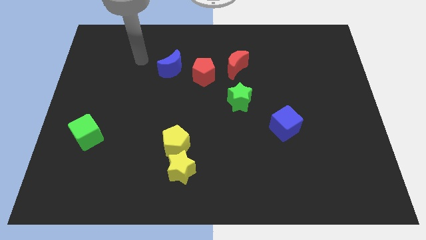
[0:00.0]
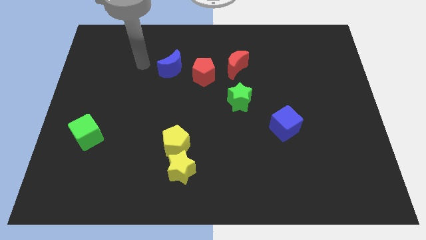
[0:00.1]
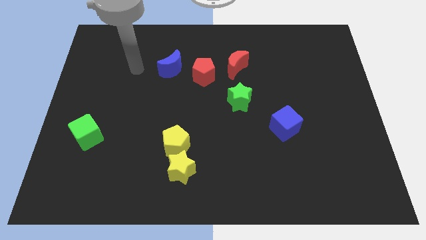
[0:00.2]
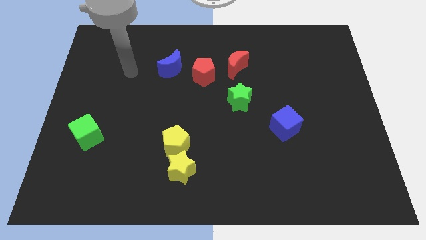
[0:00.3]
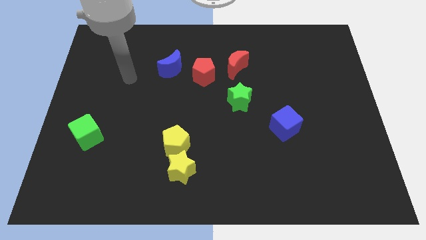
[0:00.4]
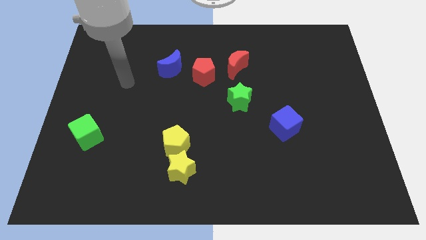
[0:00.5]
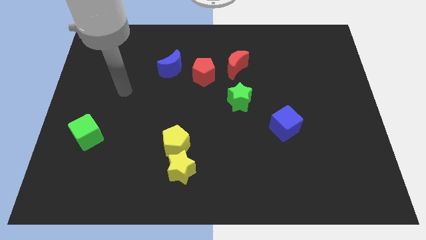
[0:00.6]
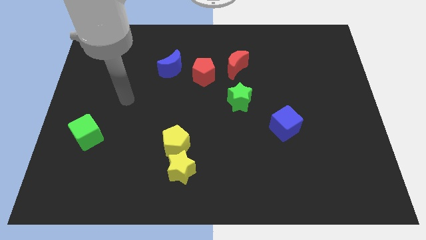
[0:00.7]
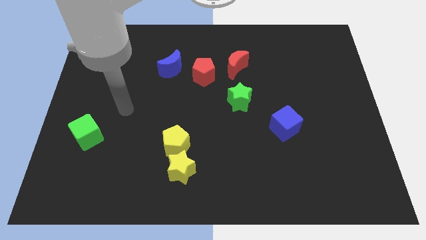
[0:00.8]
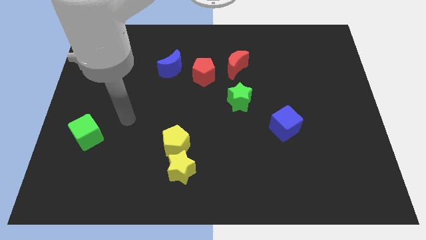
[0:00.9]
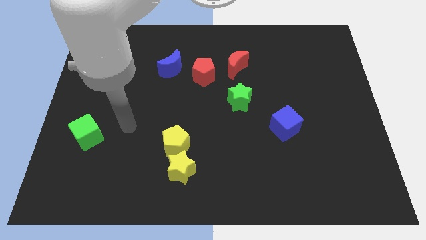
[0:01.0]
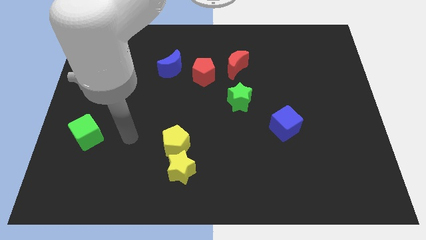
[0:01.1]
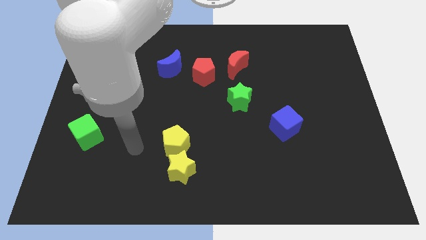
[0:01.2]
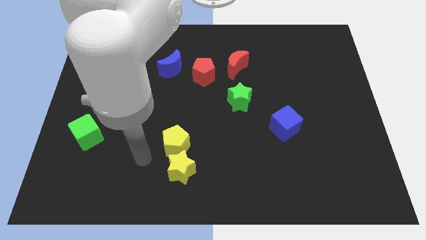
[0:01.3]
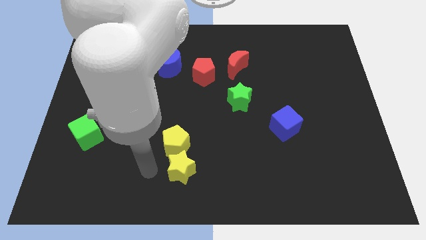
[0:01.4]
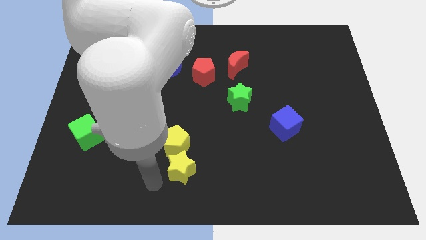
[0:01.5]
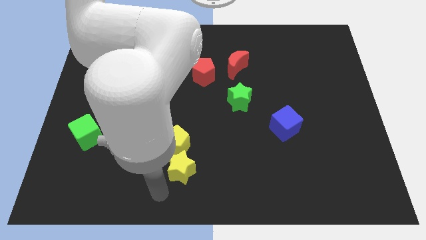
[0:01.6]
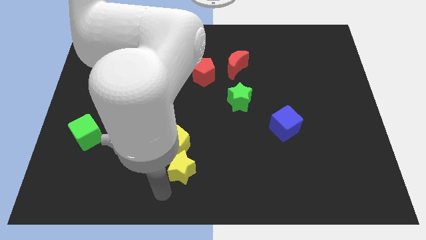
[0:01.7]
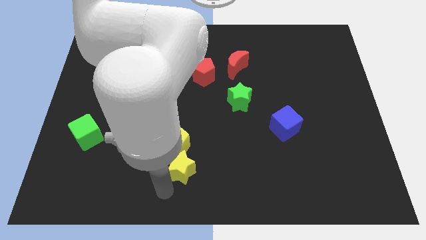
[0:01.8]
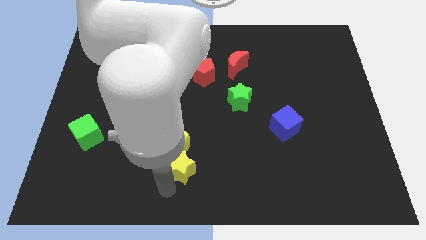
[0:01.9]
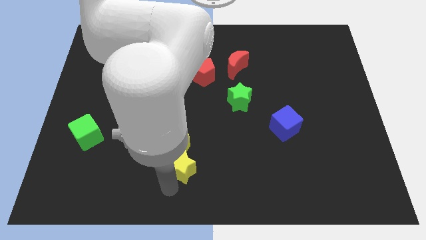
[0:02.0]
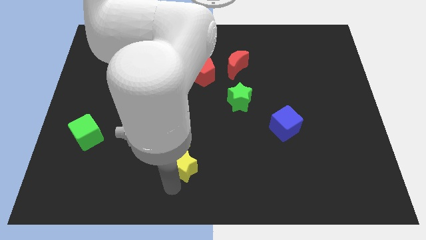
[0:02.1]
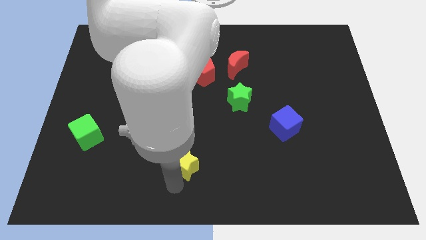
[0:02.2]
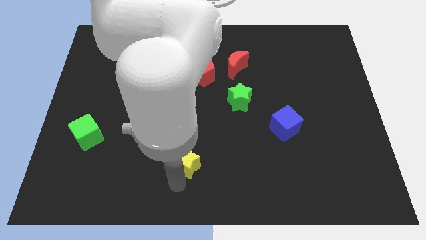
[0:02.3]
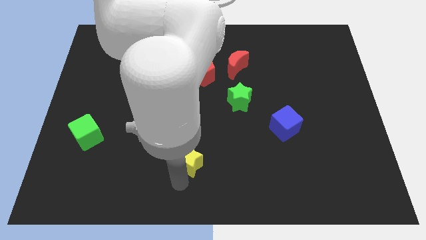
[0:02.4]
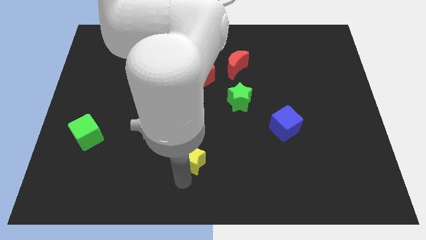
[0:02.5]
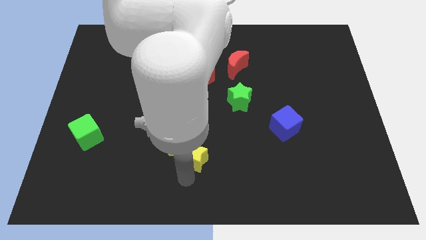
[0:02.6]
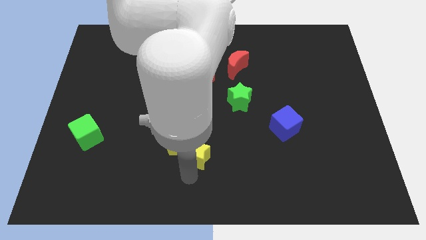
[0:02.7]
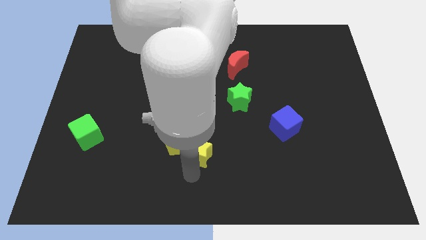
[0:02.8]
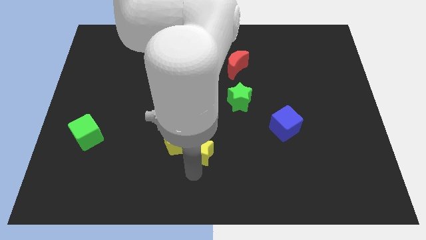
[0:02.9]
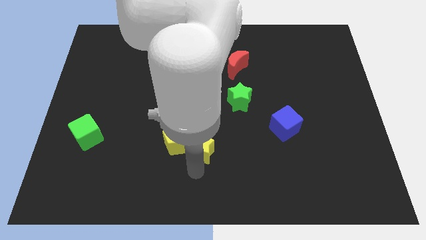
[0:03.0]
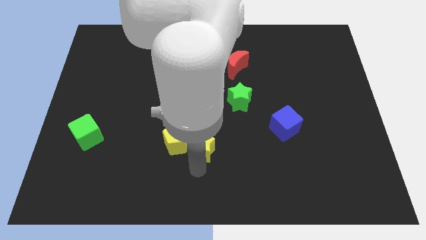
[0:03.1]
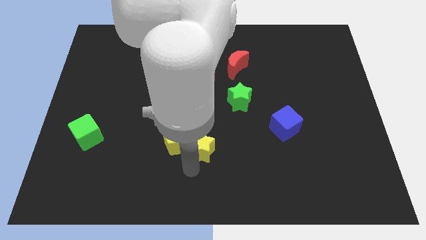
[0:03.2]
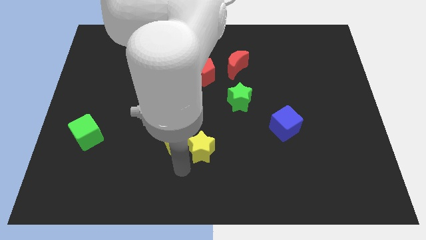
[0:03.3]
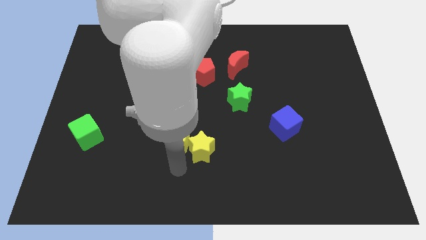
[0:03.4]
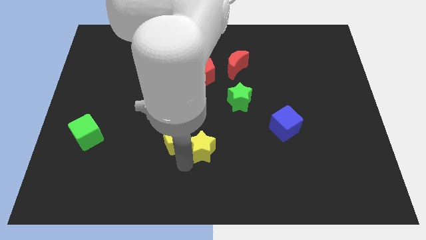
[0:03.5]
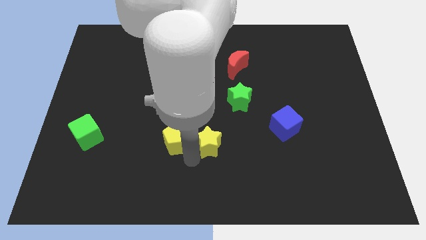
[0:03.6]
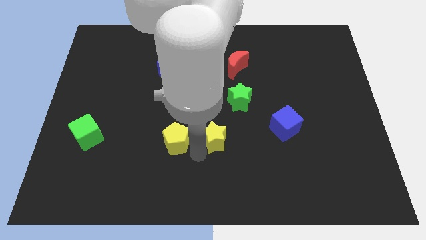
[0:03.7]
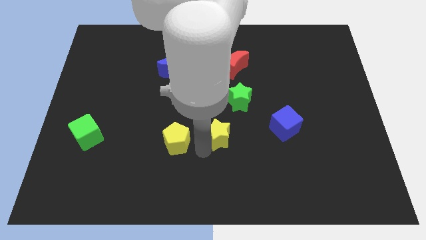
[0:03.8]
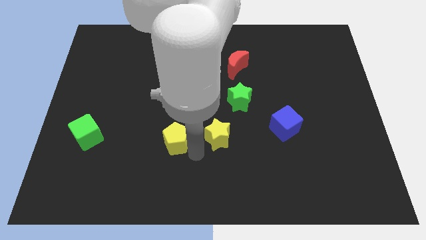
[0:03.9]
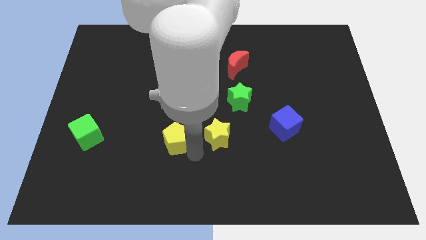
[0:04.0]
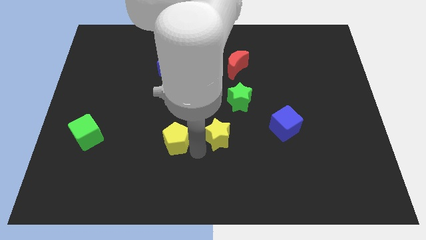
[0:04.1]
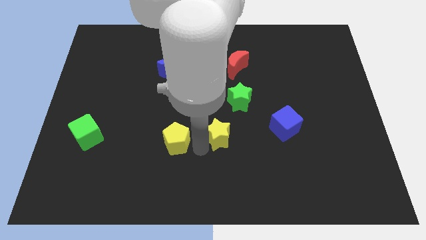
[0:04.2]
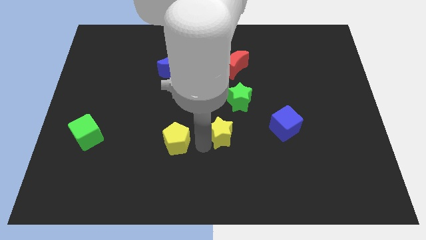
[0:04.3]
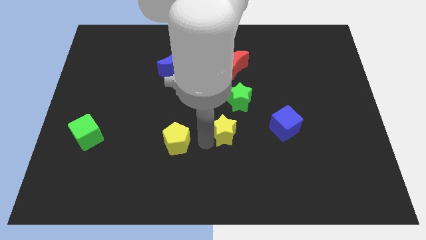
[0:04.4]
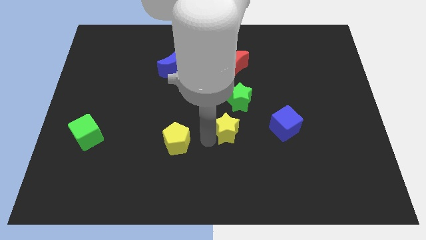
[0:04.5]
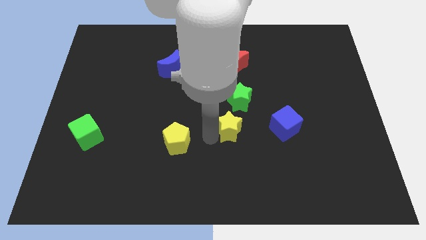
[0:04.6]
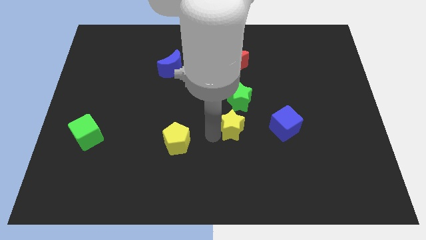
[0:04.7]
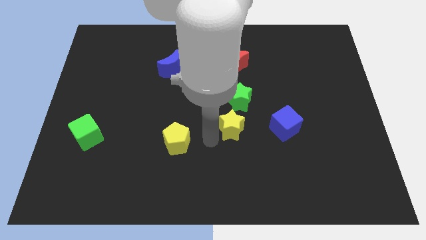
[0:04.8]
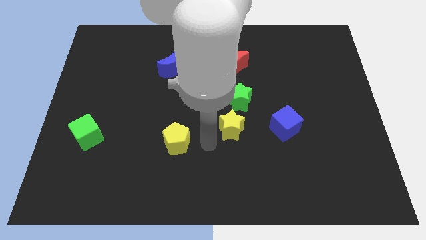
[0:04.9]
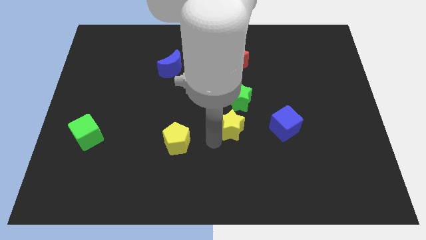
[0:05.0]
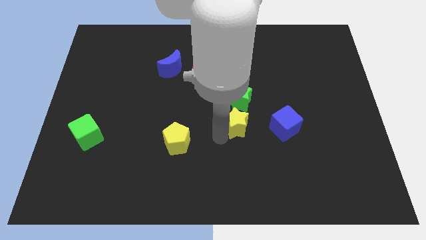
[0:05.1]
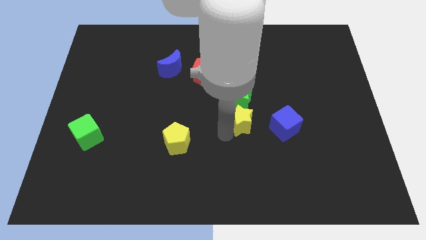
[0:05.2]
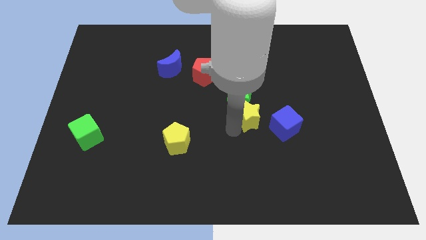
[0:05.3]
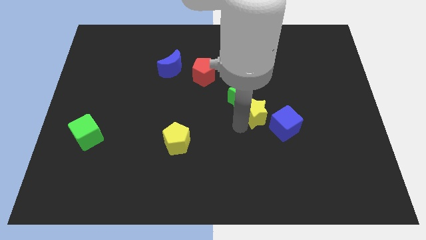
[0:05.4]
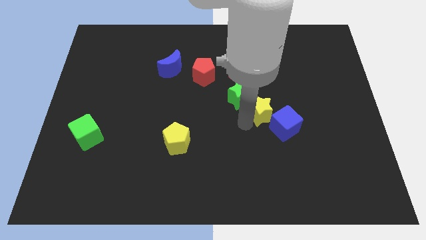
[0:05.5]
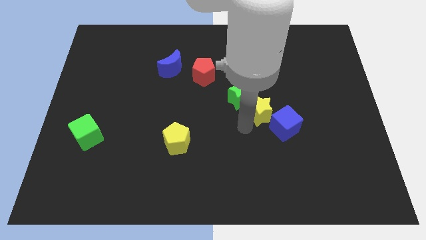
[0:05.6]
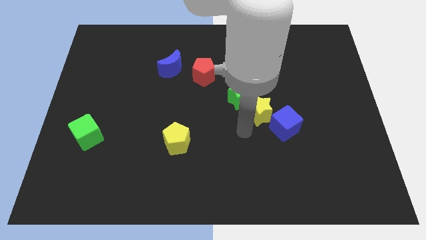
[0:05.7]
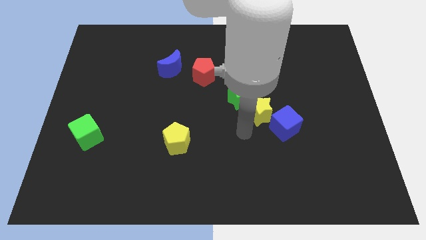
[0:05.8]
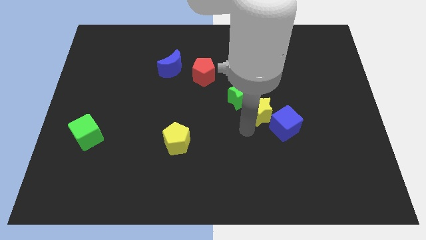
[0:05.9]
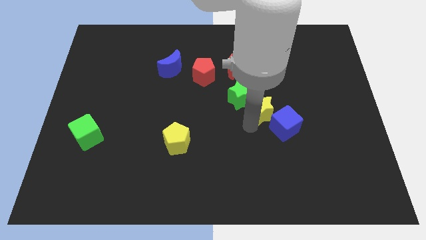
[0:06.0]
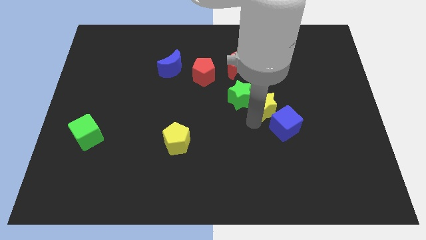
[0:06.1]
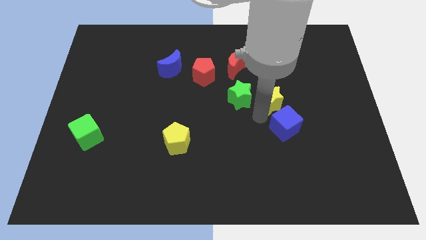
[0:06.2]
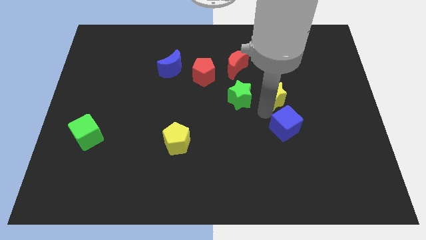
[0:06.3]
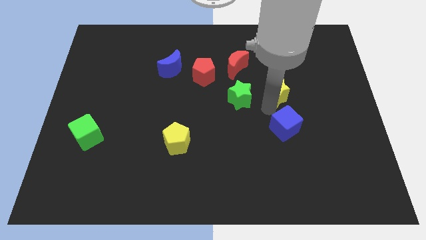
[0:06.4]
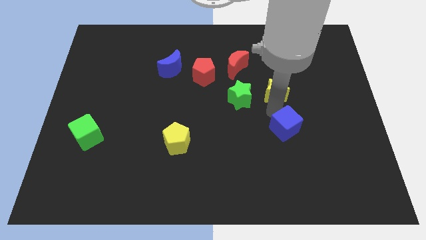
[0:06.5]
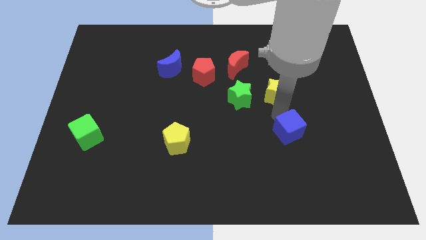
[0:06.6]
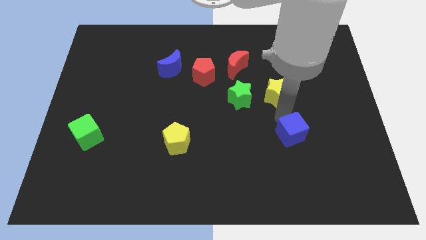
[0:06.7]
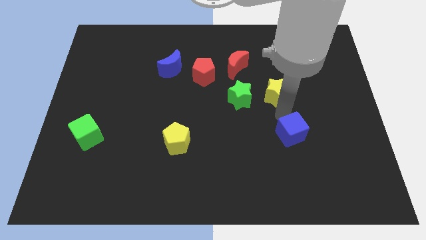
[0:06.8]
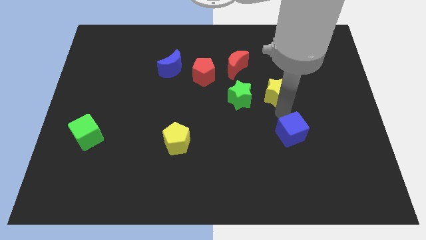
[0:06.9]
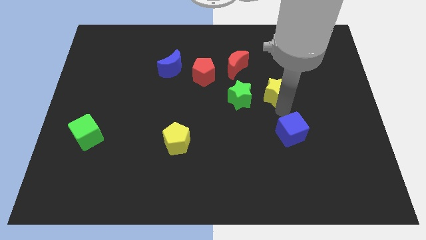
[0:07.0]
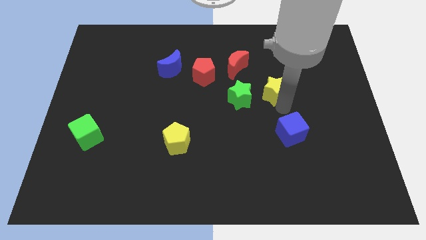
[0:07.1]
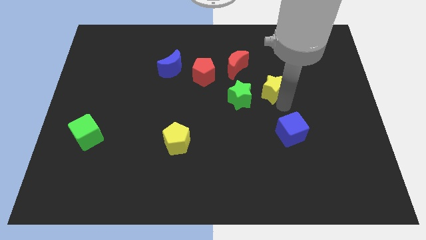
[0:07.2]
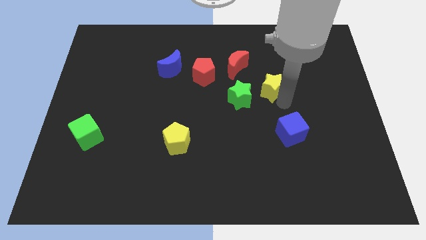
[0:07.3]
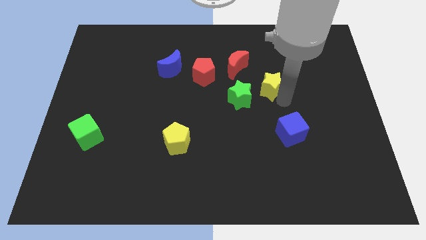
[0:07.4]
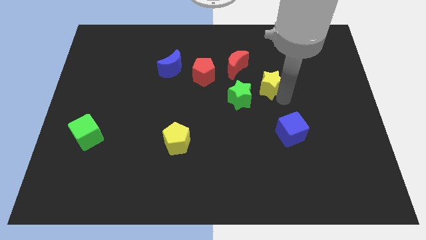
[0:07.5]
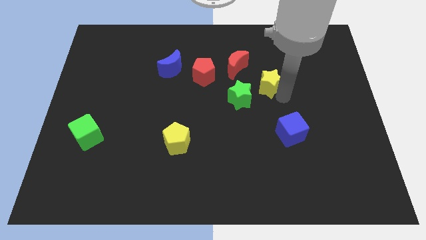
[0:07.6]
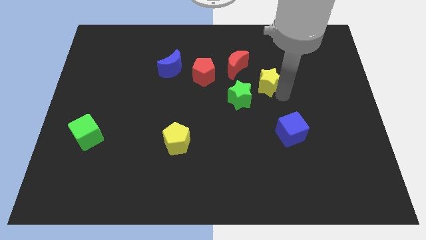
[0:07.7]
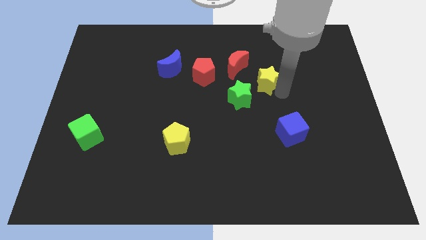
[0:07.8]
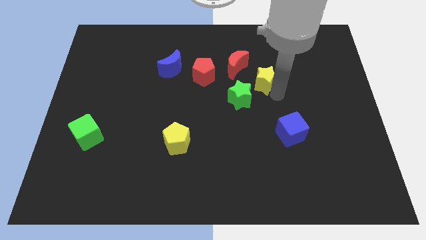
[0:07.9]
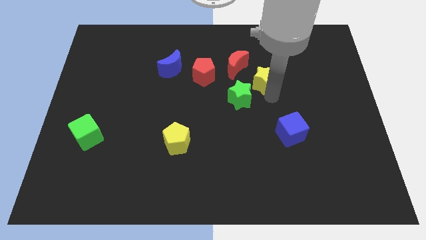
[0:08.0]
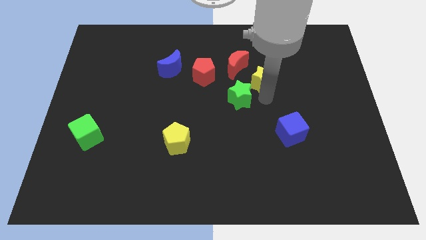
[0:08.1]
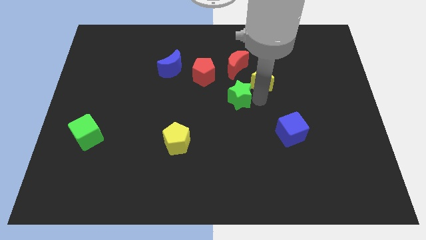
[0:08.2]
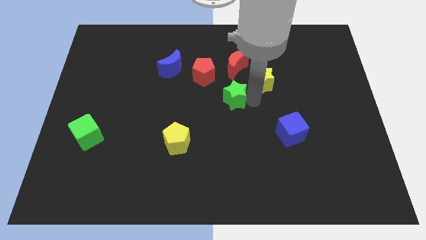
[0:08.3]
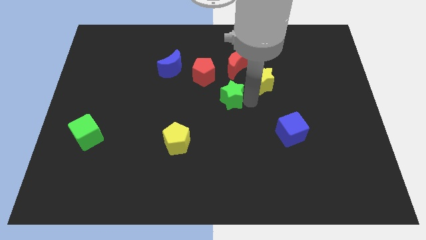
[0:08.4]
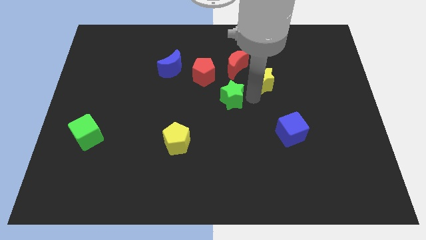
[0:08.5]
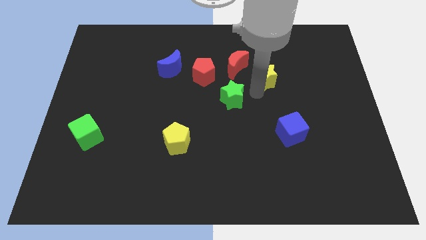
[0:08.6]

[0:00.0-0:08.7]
slide the yellow star right of the red moon
